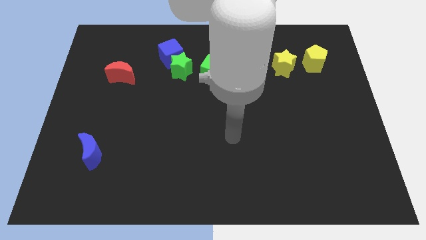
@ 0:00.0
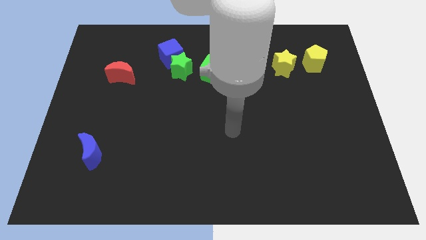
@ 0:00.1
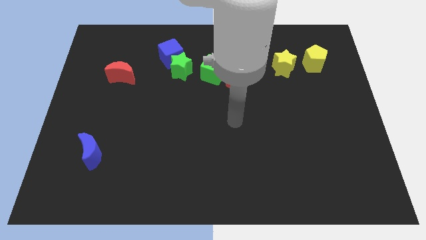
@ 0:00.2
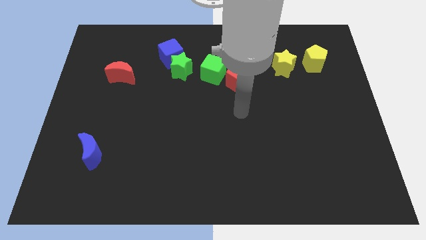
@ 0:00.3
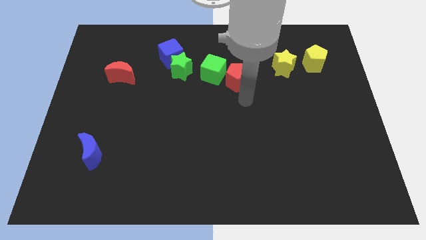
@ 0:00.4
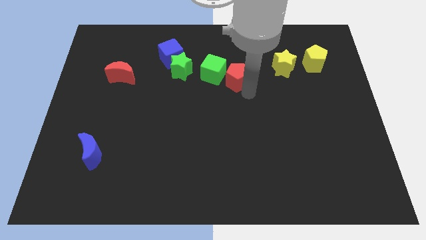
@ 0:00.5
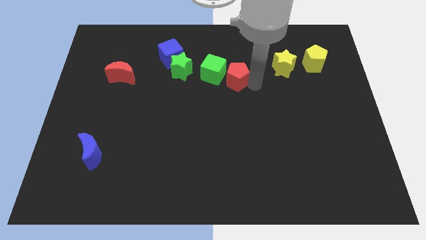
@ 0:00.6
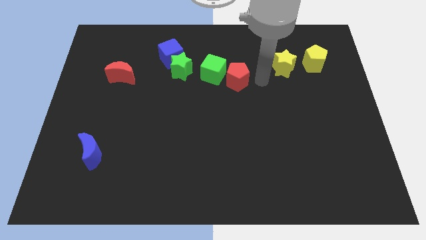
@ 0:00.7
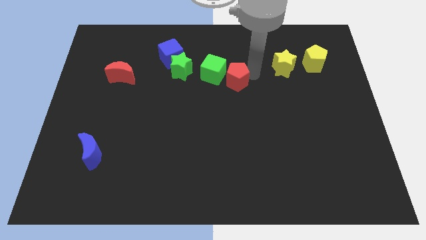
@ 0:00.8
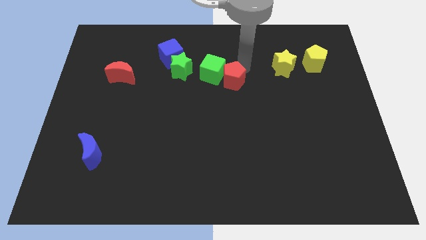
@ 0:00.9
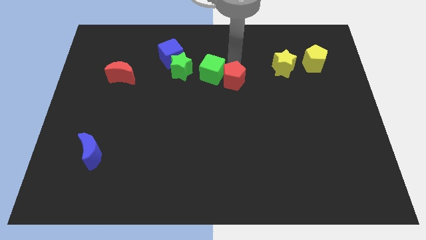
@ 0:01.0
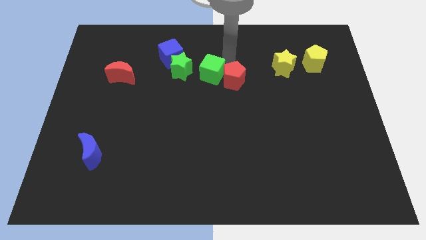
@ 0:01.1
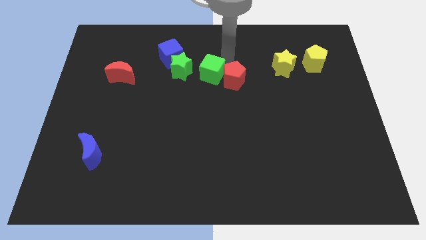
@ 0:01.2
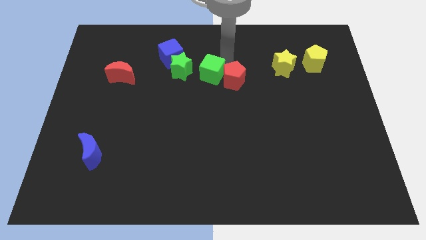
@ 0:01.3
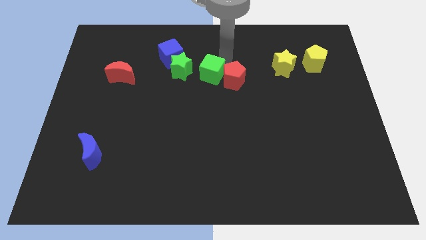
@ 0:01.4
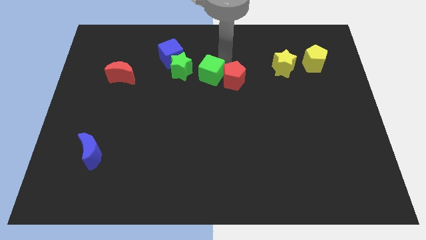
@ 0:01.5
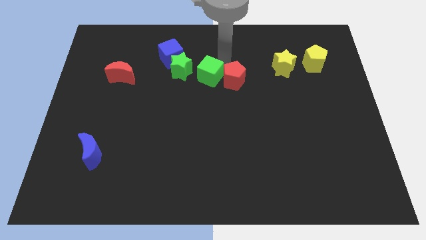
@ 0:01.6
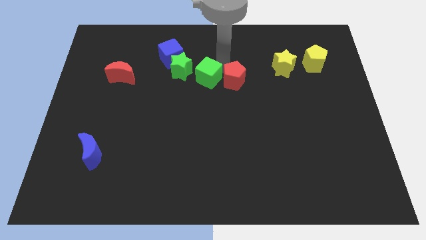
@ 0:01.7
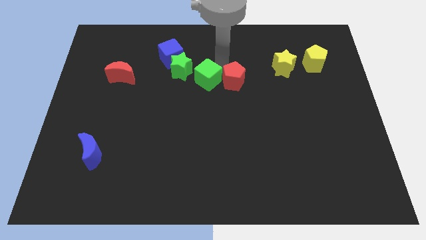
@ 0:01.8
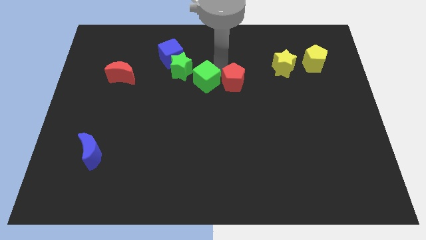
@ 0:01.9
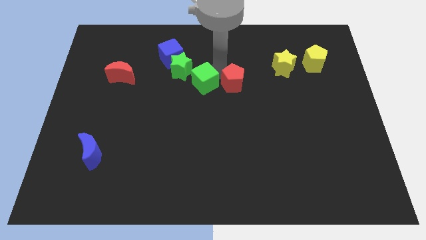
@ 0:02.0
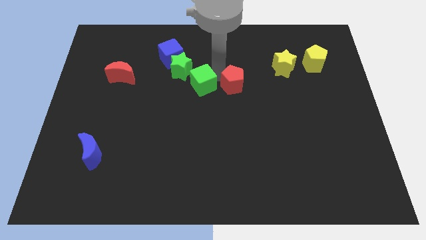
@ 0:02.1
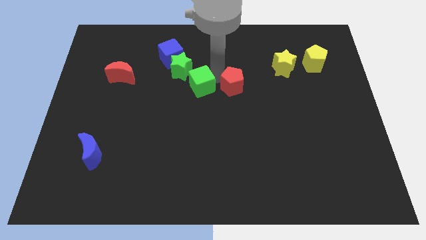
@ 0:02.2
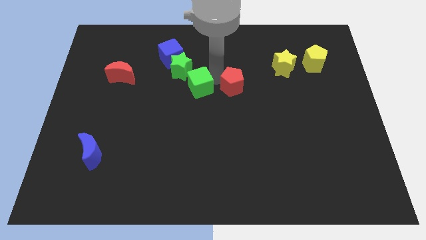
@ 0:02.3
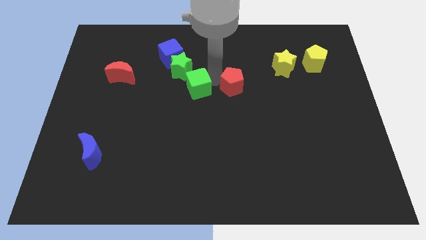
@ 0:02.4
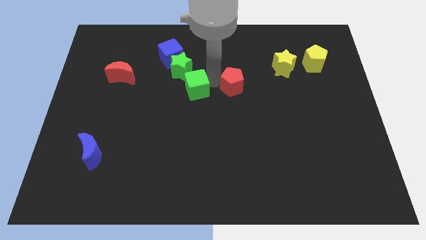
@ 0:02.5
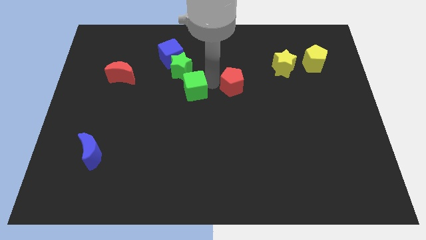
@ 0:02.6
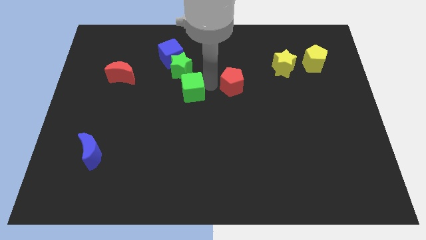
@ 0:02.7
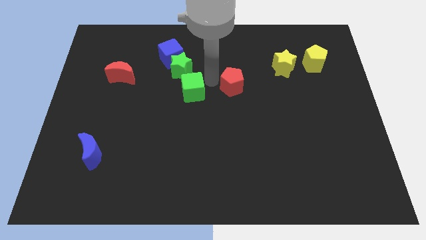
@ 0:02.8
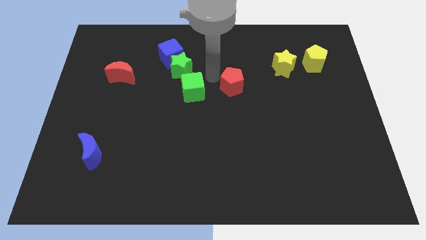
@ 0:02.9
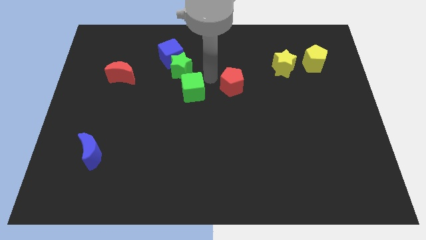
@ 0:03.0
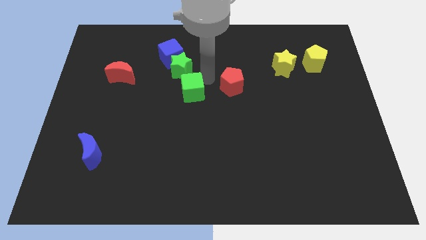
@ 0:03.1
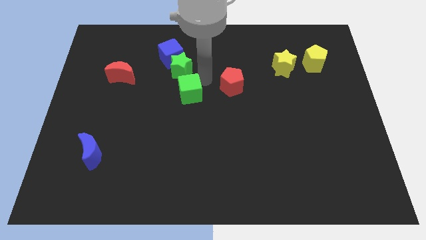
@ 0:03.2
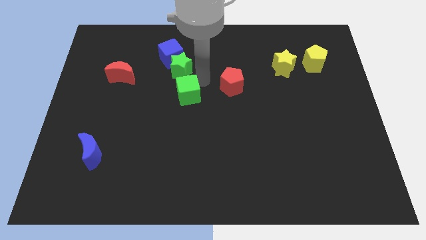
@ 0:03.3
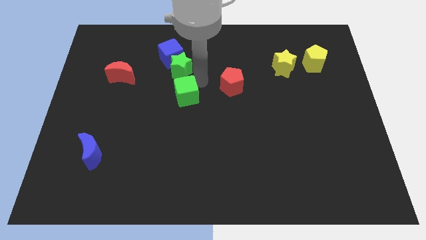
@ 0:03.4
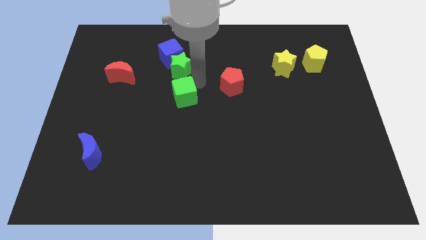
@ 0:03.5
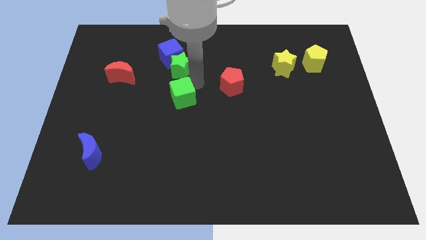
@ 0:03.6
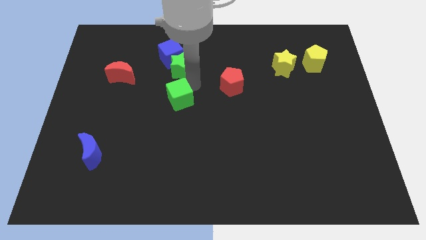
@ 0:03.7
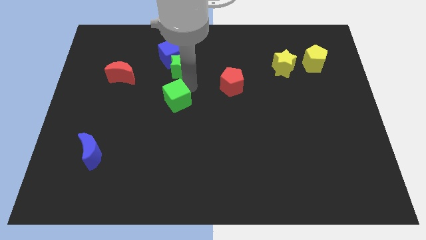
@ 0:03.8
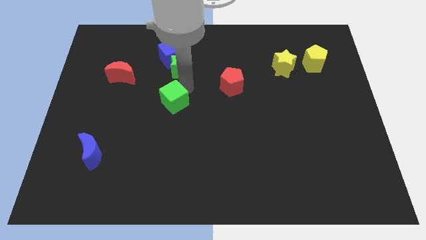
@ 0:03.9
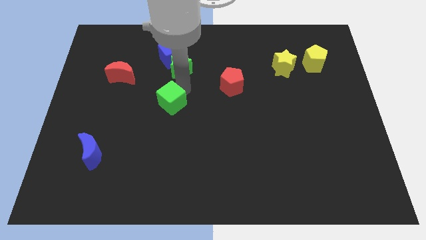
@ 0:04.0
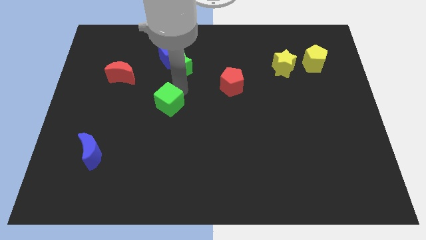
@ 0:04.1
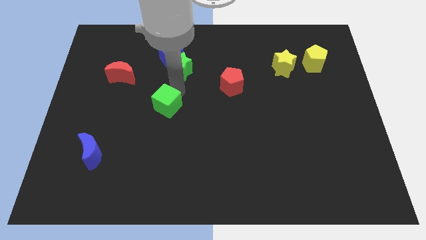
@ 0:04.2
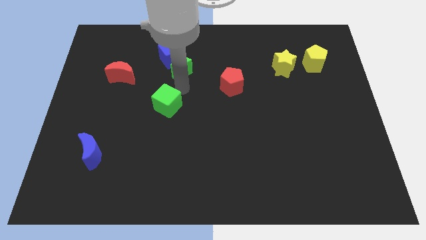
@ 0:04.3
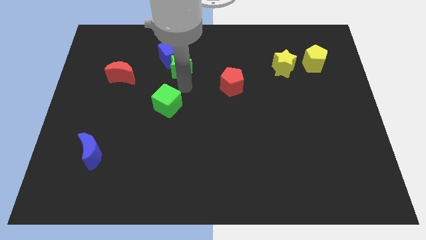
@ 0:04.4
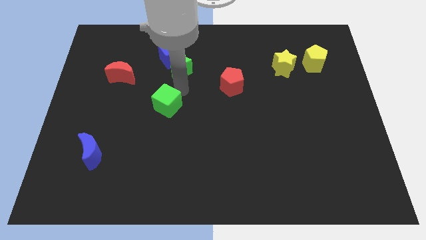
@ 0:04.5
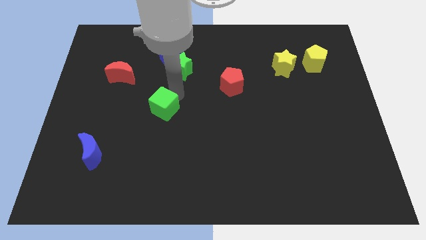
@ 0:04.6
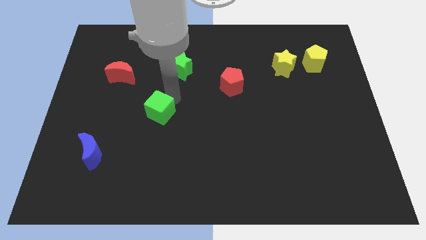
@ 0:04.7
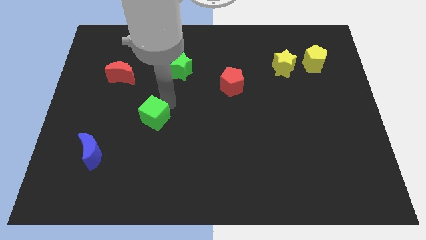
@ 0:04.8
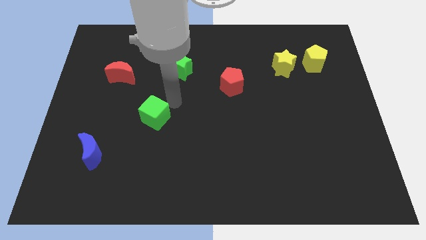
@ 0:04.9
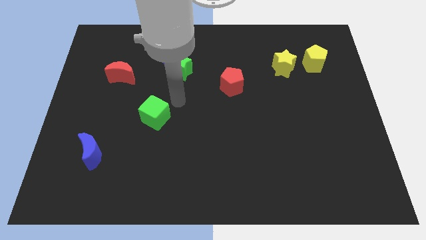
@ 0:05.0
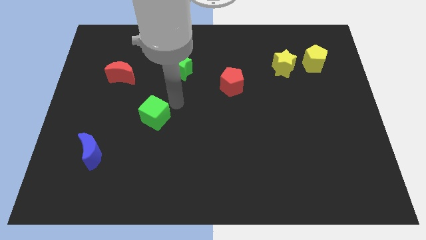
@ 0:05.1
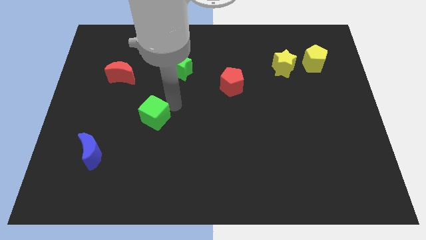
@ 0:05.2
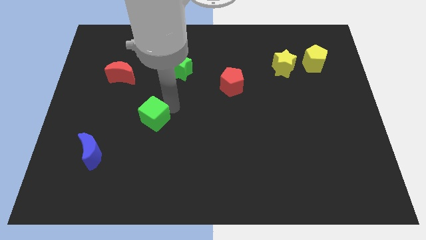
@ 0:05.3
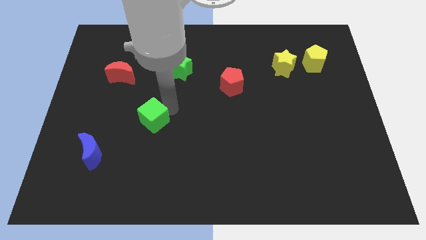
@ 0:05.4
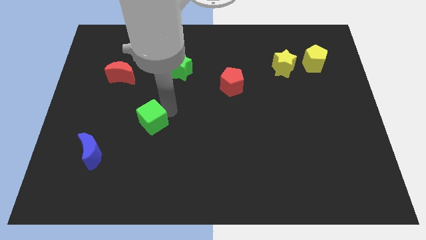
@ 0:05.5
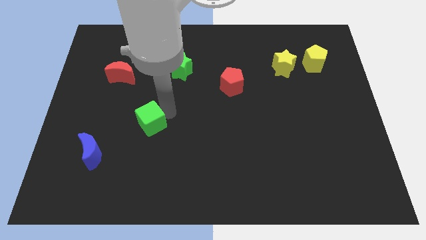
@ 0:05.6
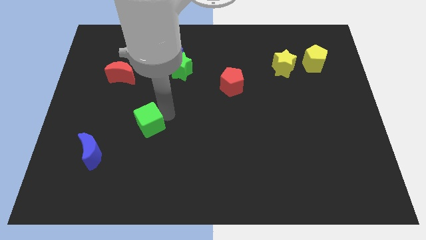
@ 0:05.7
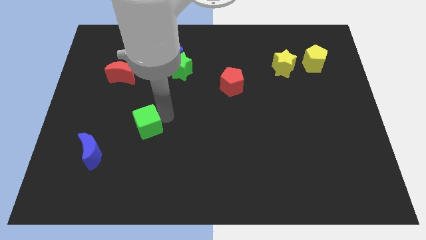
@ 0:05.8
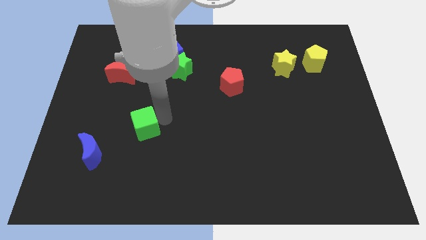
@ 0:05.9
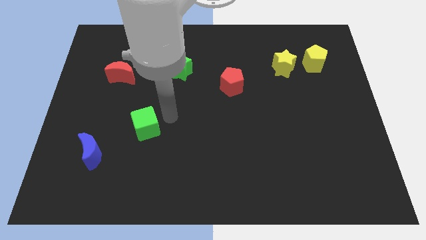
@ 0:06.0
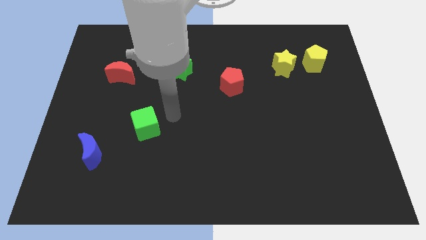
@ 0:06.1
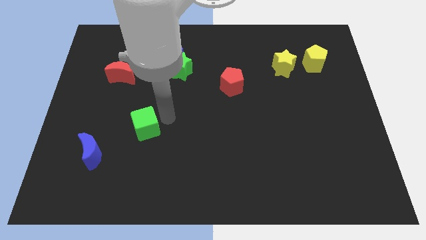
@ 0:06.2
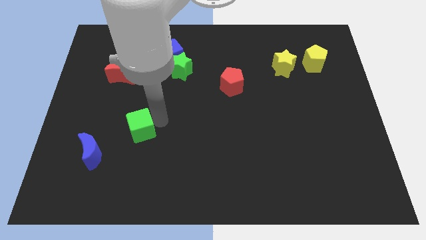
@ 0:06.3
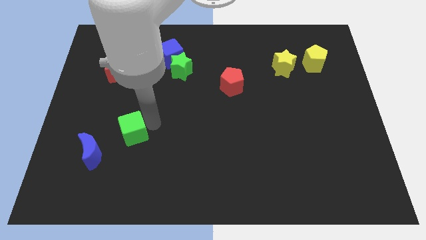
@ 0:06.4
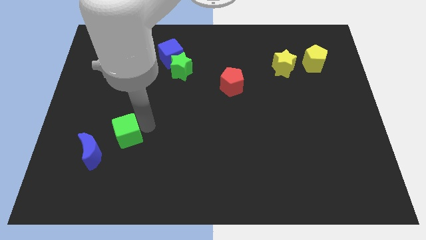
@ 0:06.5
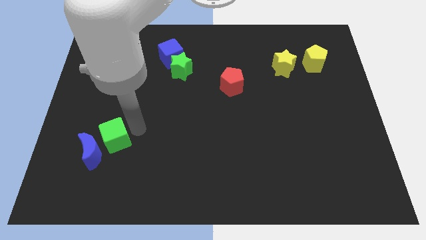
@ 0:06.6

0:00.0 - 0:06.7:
put the green cube to the blue moon
